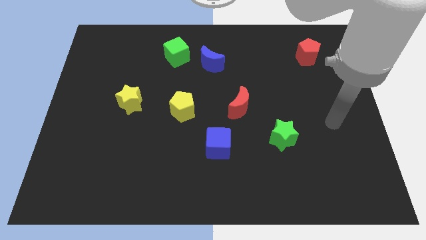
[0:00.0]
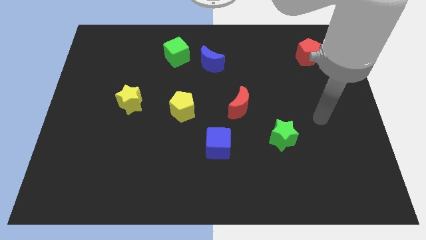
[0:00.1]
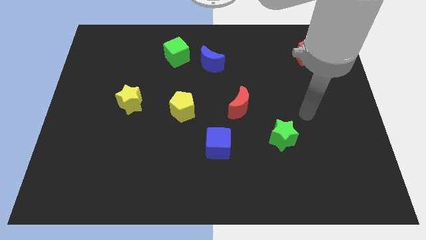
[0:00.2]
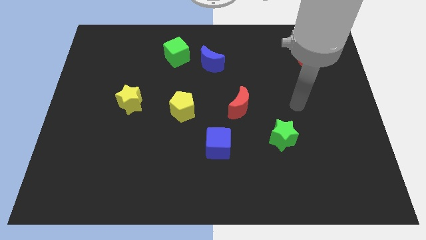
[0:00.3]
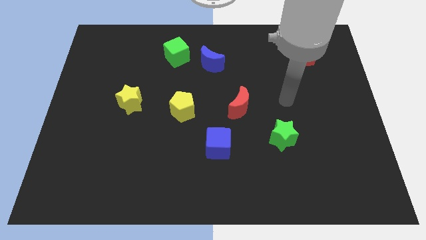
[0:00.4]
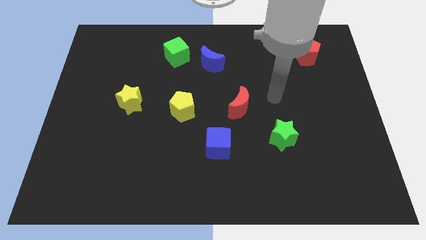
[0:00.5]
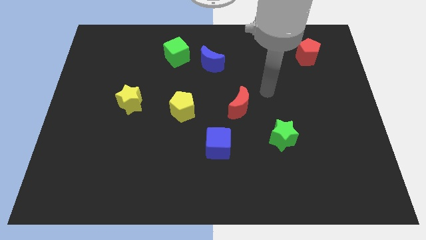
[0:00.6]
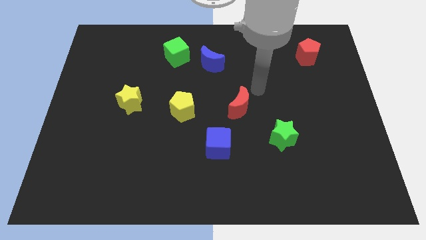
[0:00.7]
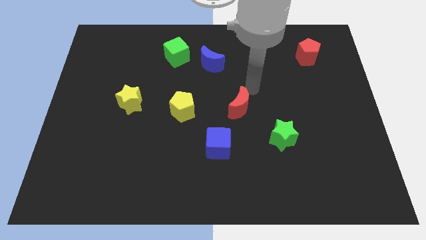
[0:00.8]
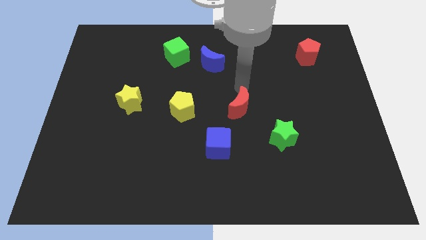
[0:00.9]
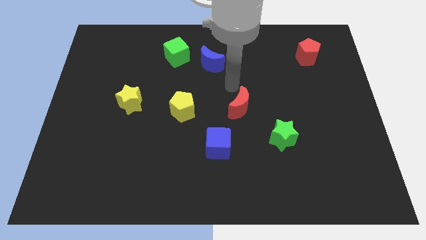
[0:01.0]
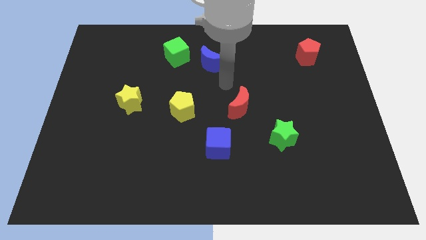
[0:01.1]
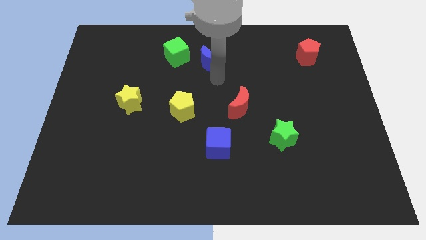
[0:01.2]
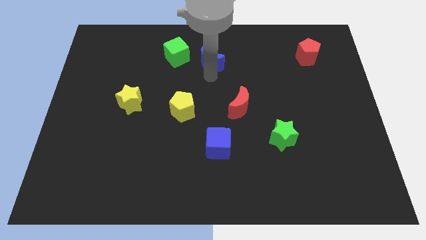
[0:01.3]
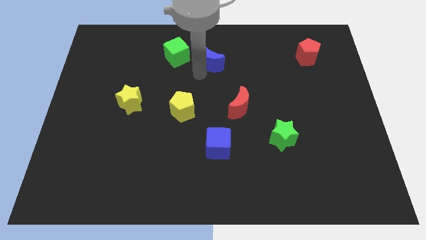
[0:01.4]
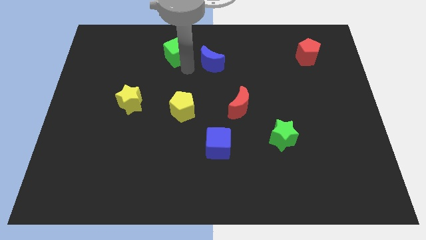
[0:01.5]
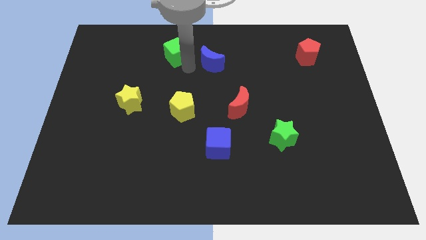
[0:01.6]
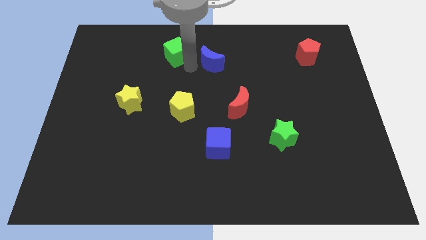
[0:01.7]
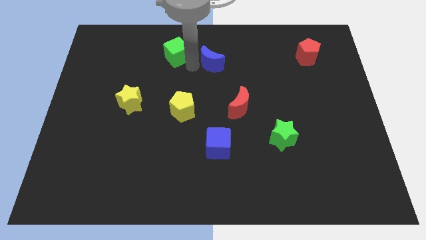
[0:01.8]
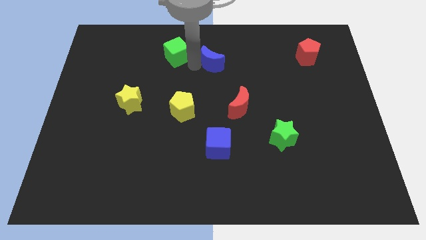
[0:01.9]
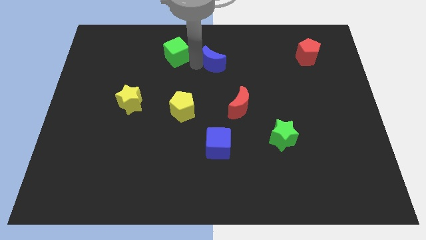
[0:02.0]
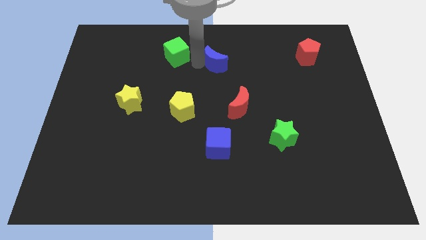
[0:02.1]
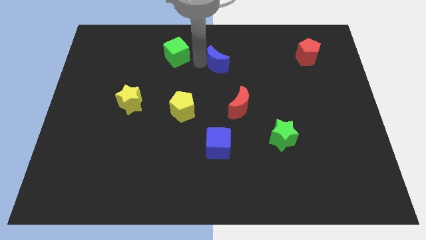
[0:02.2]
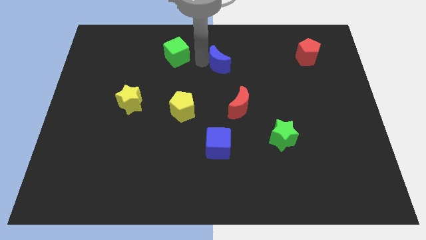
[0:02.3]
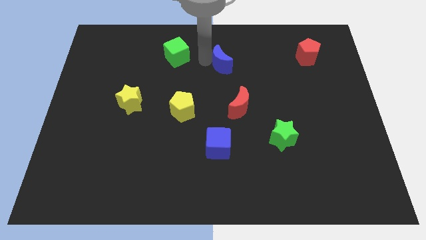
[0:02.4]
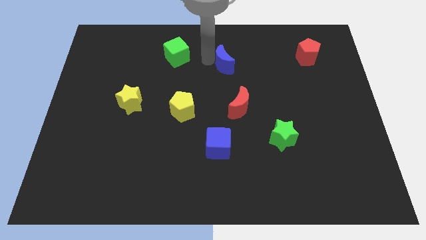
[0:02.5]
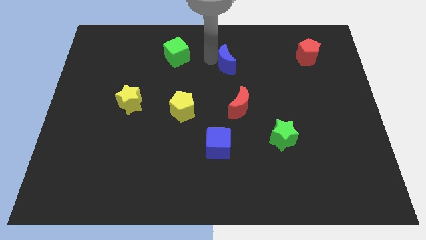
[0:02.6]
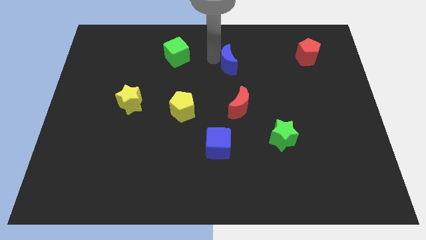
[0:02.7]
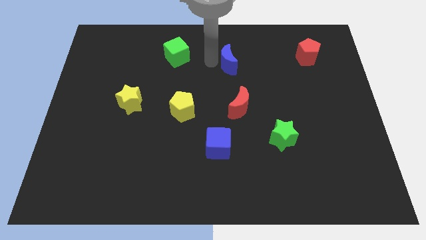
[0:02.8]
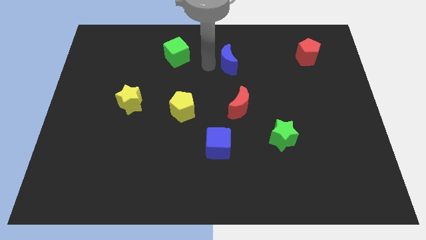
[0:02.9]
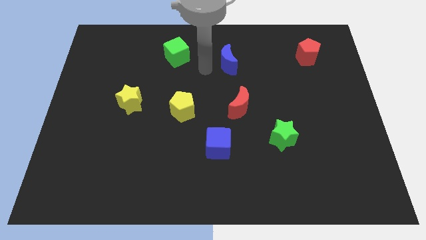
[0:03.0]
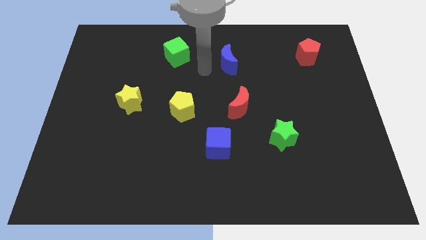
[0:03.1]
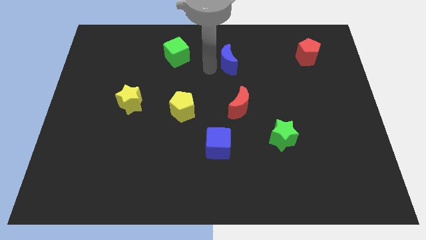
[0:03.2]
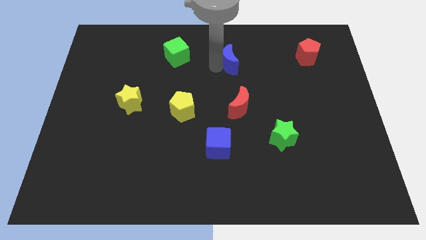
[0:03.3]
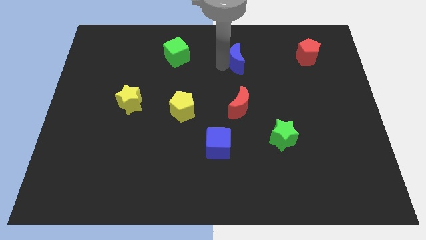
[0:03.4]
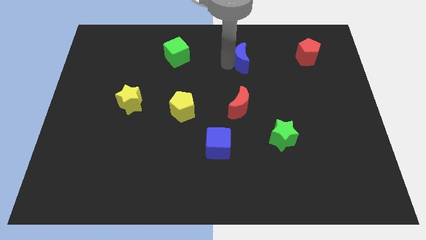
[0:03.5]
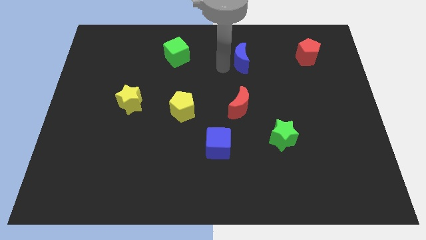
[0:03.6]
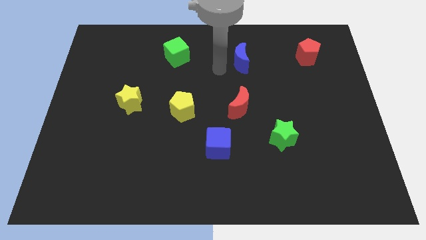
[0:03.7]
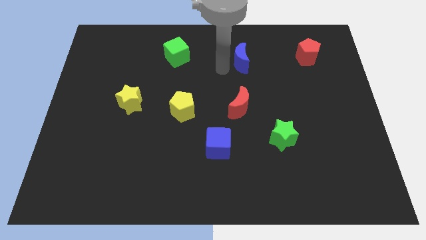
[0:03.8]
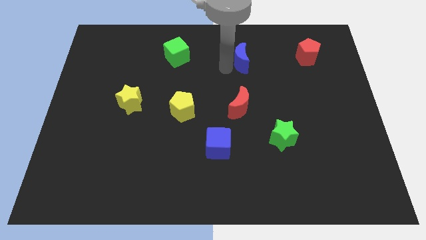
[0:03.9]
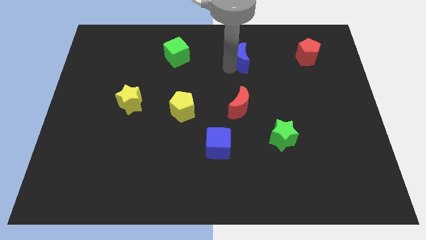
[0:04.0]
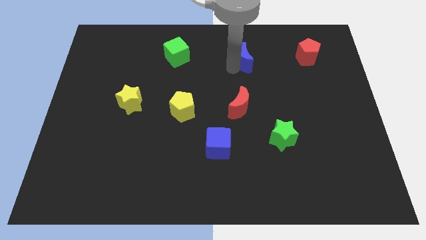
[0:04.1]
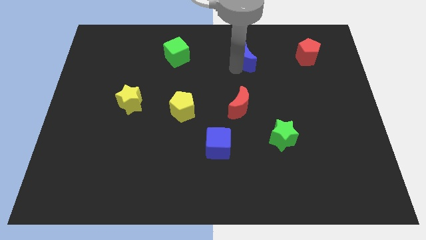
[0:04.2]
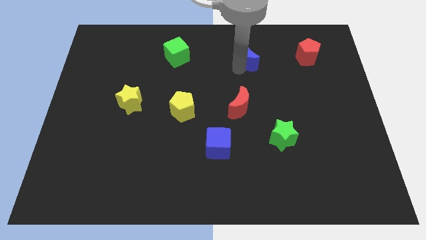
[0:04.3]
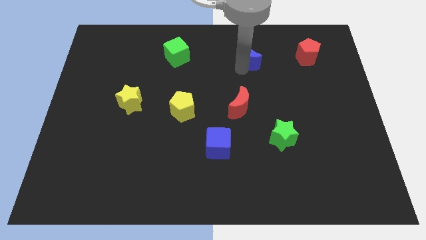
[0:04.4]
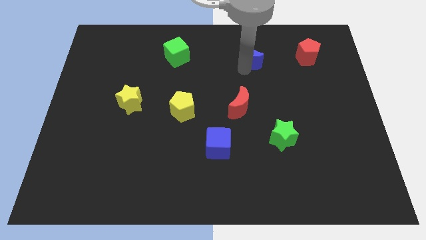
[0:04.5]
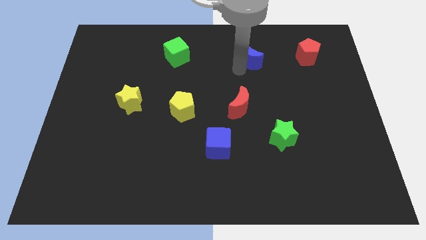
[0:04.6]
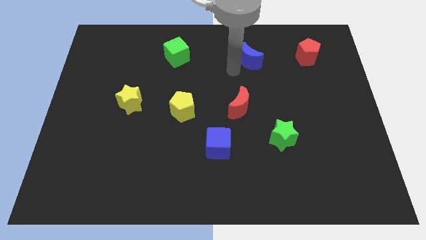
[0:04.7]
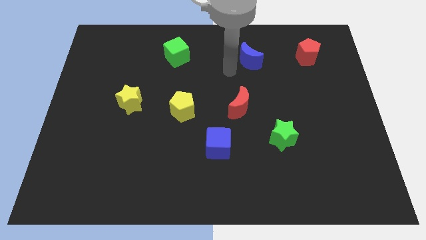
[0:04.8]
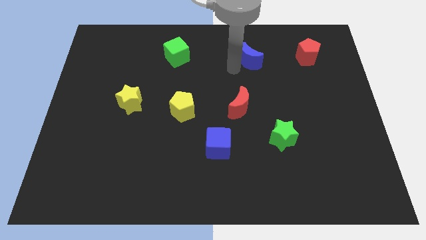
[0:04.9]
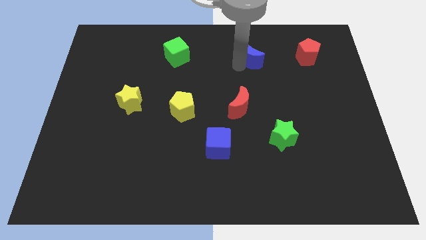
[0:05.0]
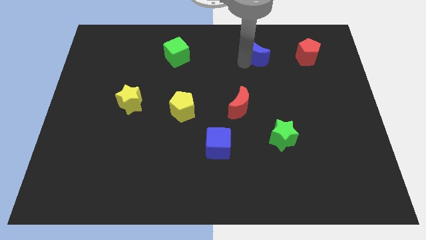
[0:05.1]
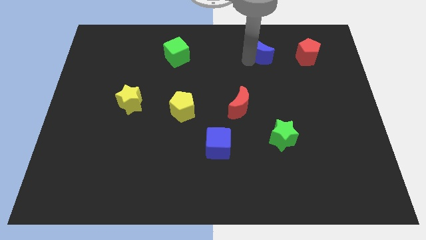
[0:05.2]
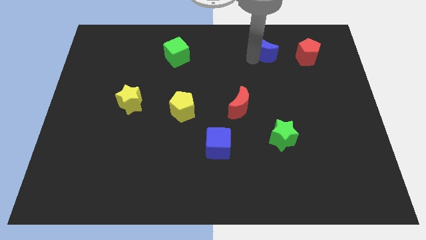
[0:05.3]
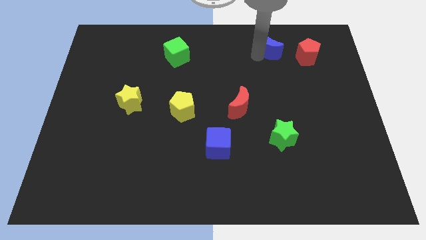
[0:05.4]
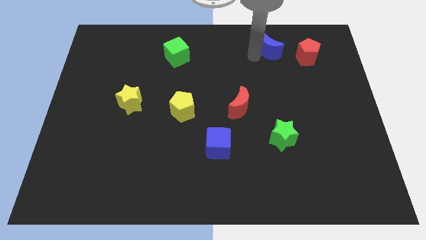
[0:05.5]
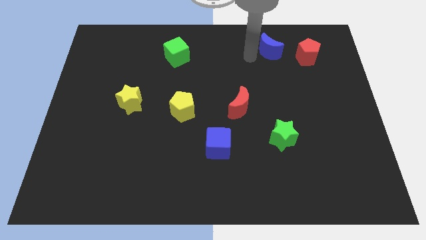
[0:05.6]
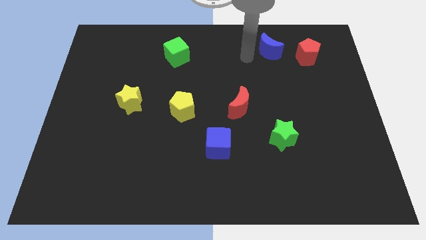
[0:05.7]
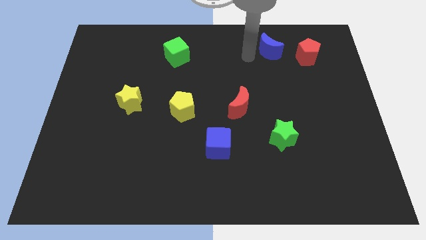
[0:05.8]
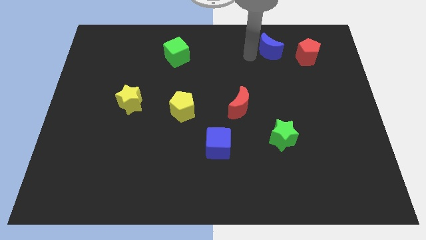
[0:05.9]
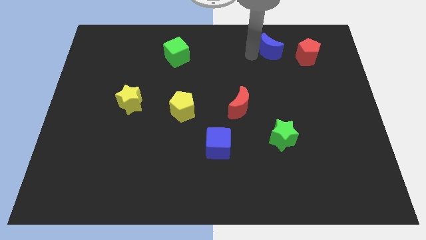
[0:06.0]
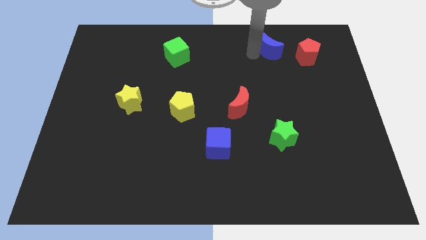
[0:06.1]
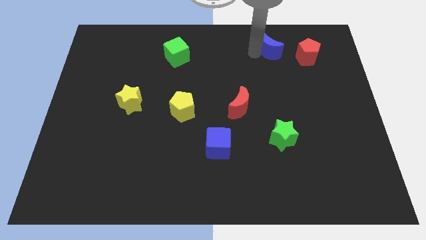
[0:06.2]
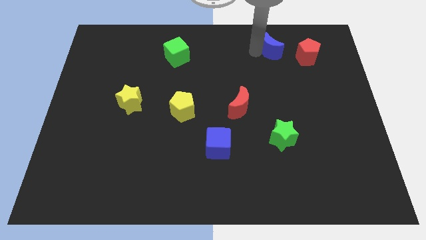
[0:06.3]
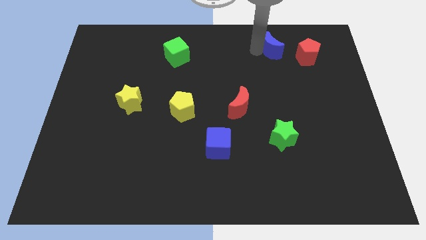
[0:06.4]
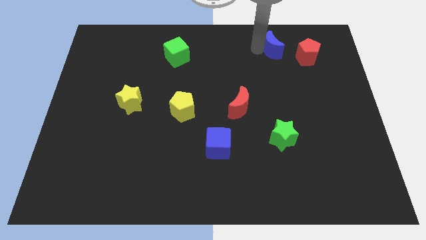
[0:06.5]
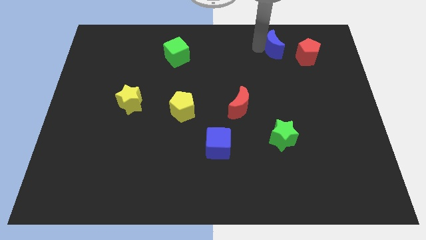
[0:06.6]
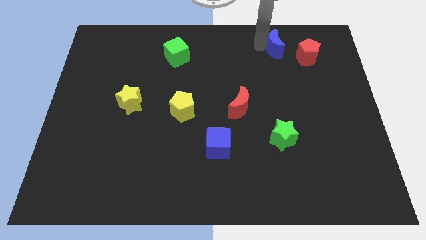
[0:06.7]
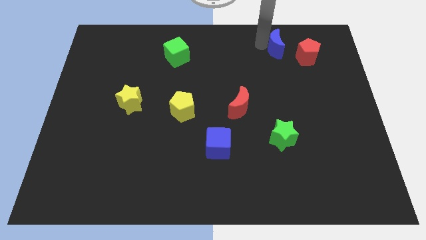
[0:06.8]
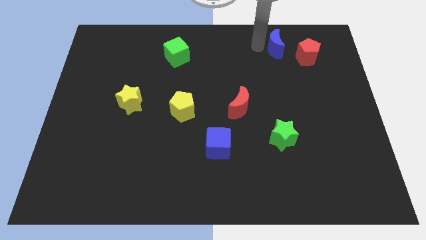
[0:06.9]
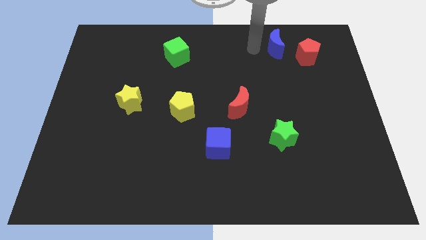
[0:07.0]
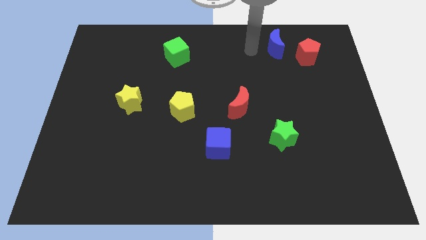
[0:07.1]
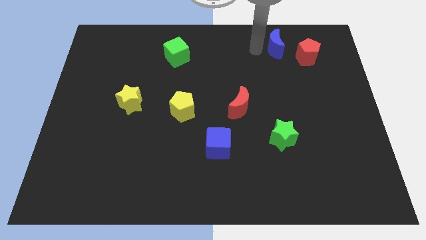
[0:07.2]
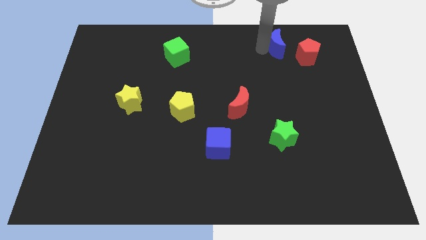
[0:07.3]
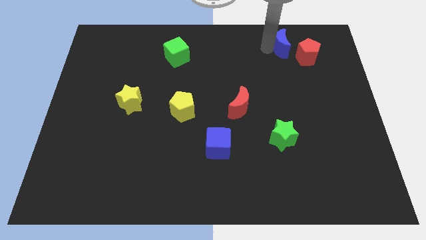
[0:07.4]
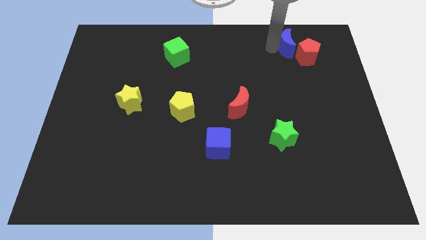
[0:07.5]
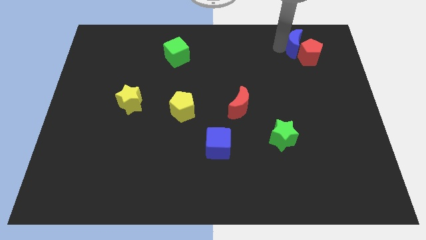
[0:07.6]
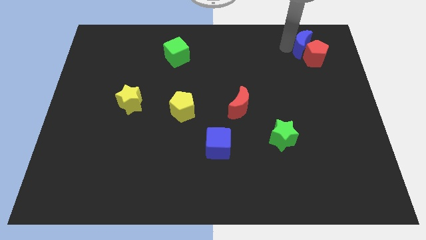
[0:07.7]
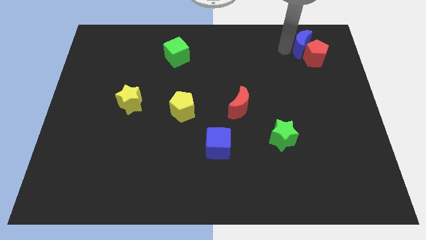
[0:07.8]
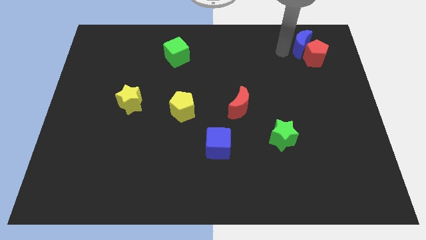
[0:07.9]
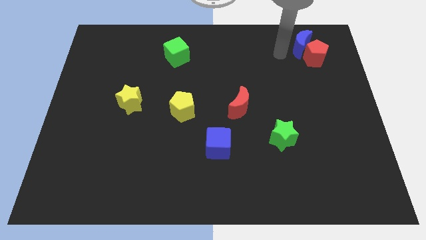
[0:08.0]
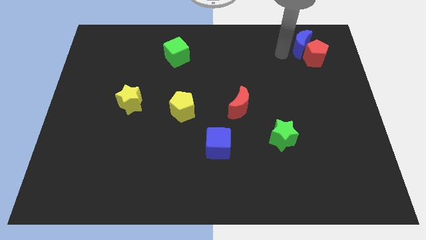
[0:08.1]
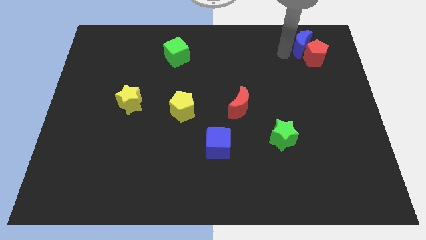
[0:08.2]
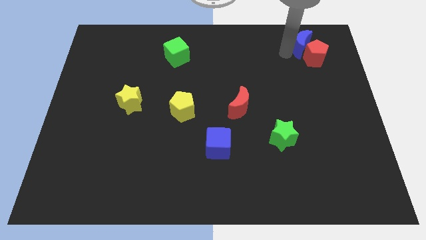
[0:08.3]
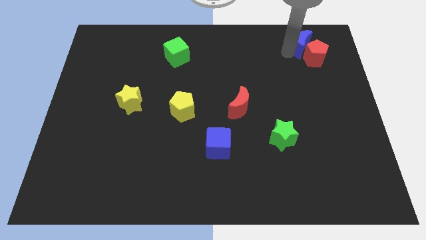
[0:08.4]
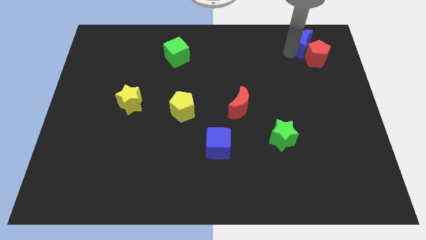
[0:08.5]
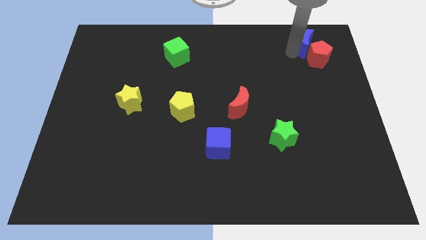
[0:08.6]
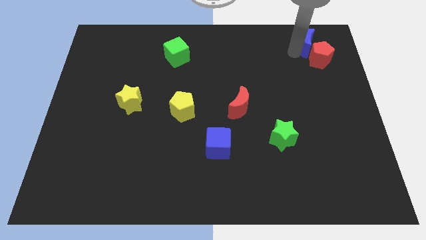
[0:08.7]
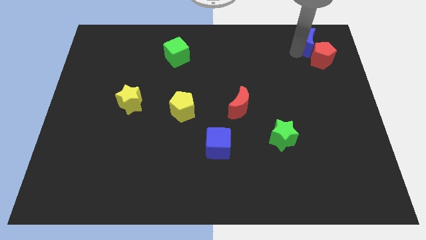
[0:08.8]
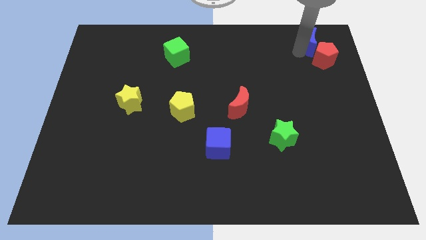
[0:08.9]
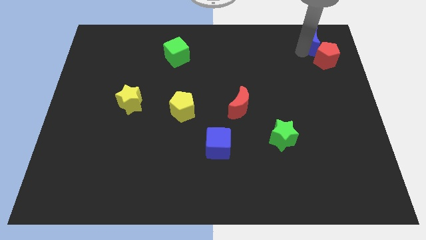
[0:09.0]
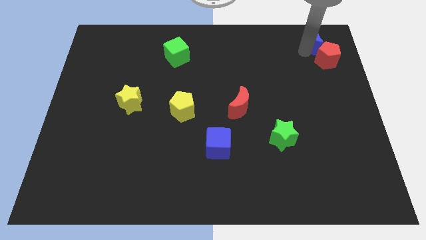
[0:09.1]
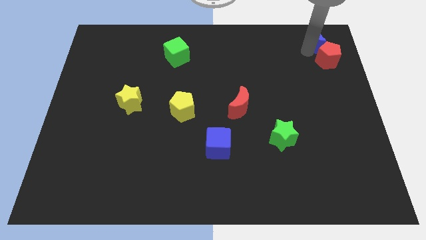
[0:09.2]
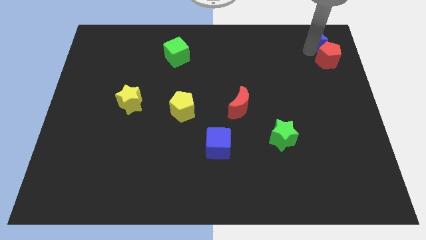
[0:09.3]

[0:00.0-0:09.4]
put the blue moon to the top right corner
